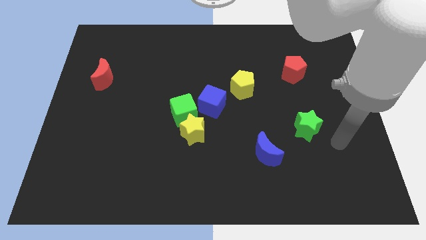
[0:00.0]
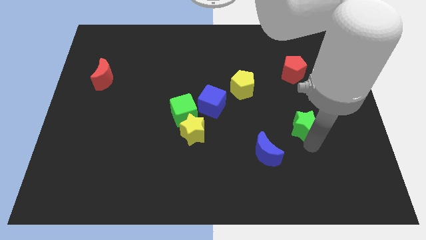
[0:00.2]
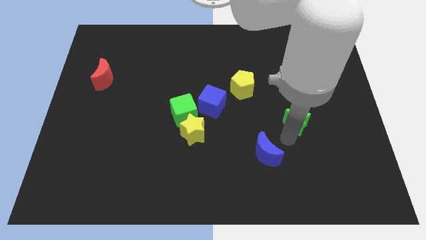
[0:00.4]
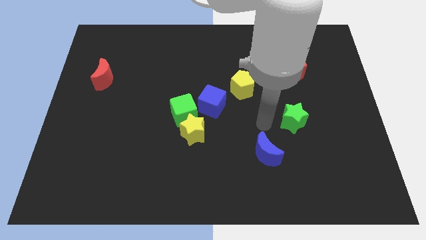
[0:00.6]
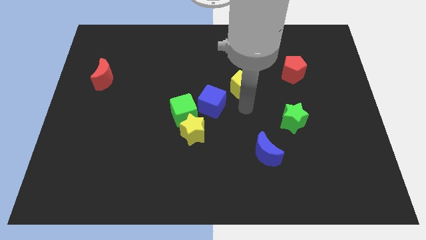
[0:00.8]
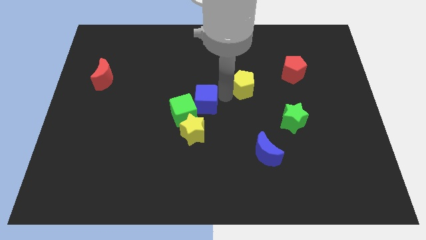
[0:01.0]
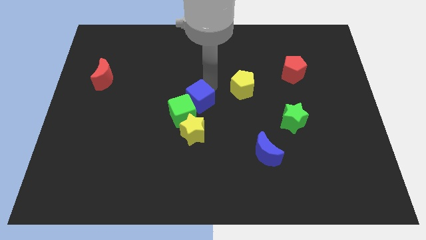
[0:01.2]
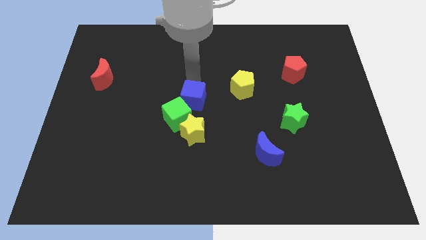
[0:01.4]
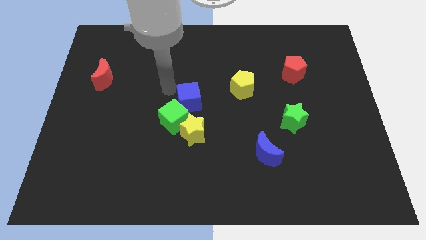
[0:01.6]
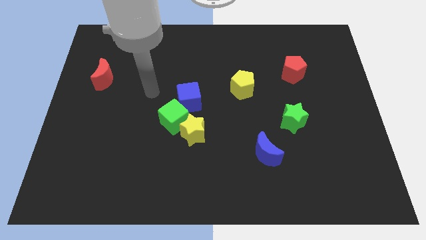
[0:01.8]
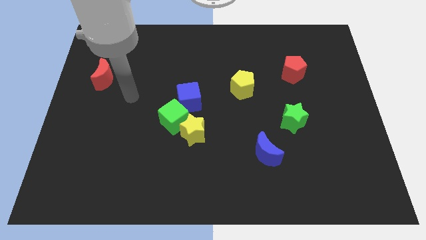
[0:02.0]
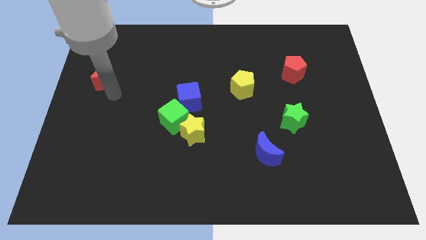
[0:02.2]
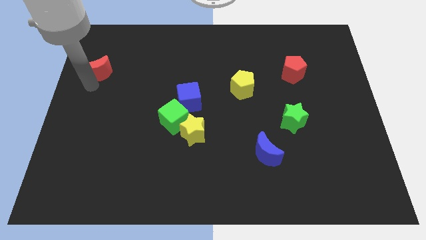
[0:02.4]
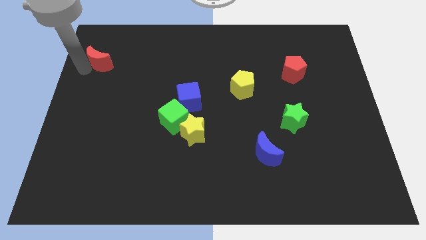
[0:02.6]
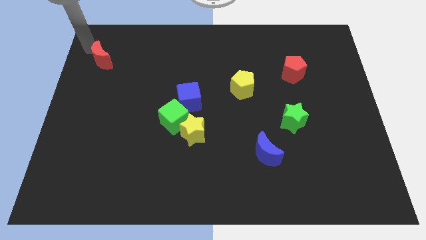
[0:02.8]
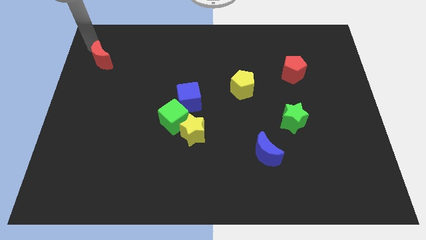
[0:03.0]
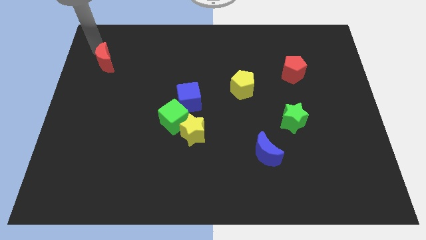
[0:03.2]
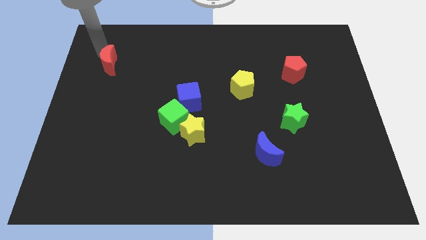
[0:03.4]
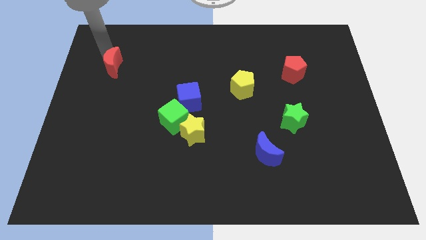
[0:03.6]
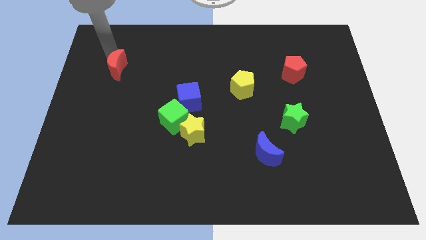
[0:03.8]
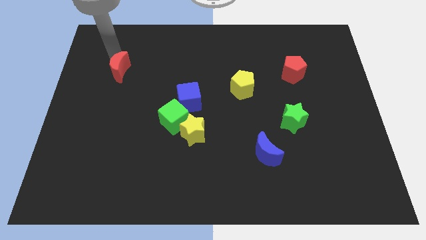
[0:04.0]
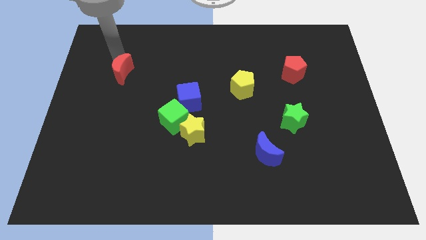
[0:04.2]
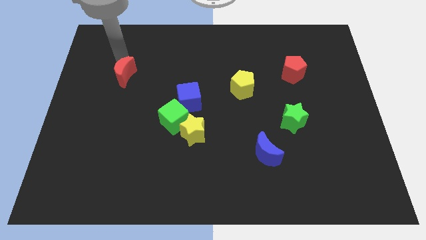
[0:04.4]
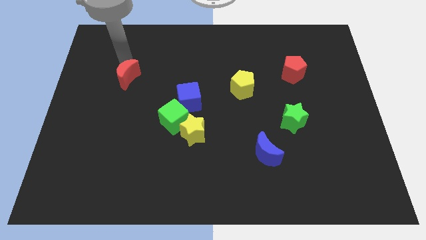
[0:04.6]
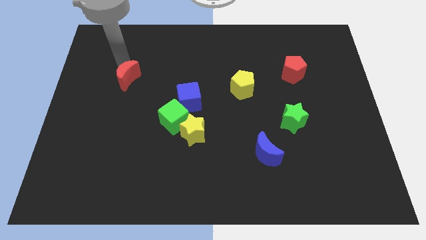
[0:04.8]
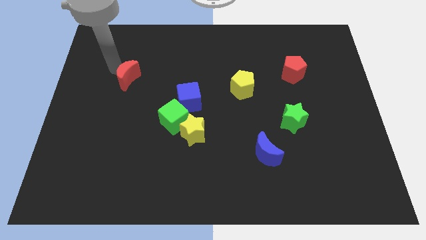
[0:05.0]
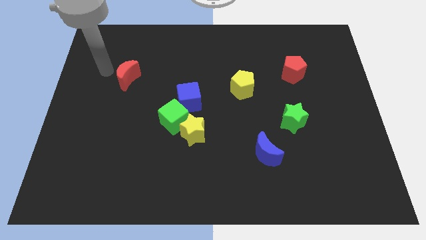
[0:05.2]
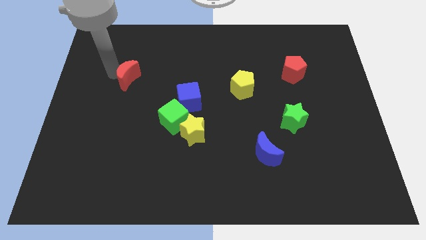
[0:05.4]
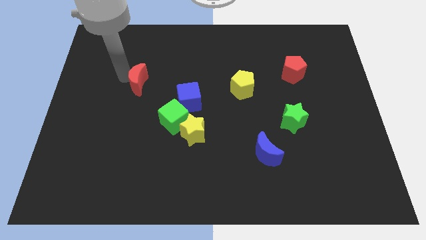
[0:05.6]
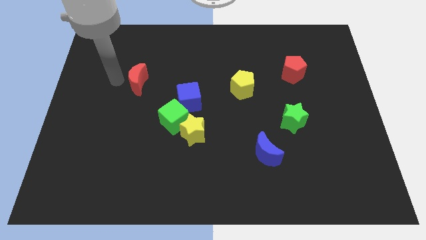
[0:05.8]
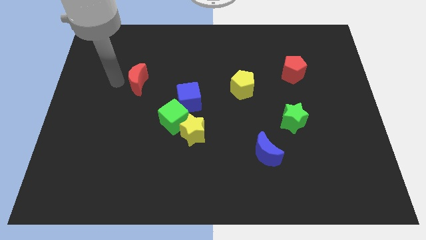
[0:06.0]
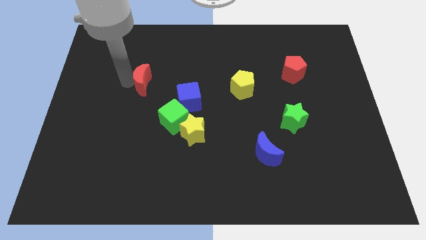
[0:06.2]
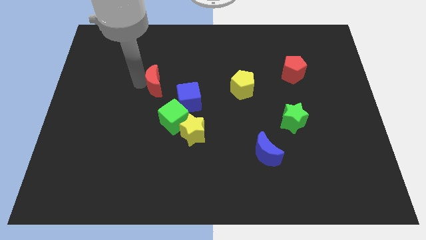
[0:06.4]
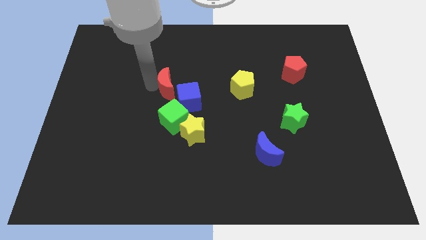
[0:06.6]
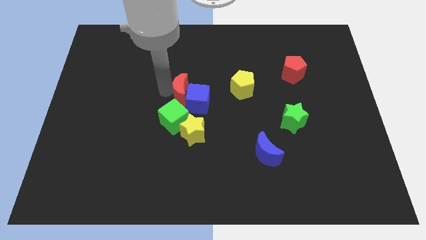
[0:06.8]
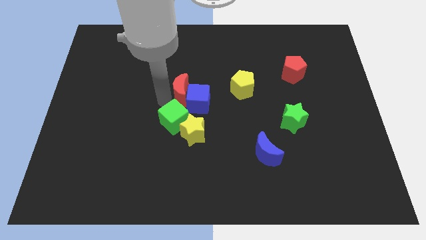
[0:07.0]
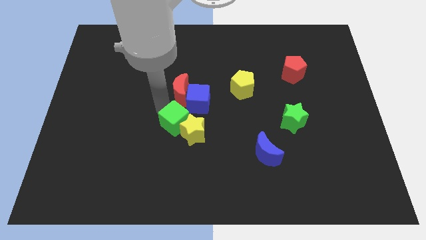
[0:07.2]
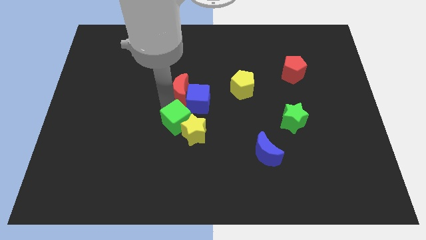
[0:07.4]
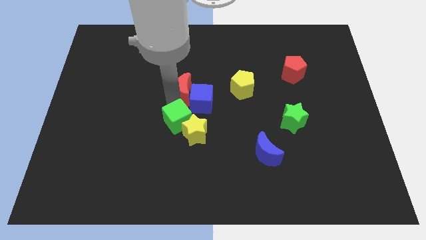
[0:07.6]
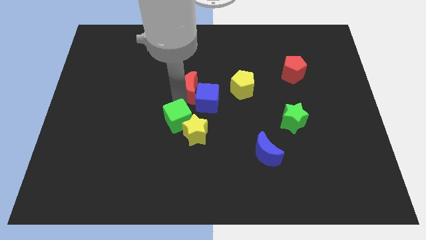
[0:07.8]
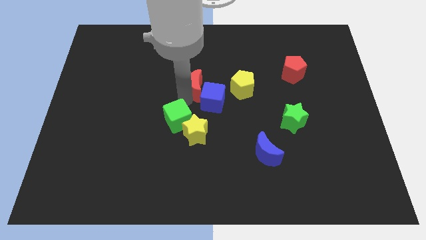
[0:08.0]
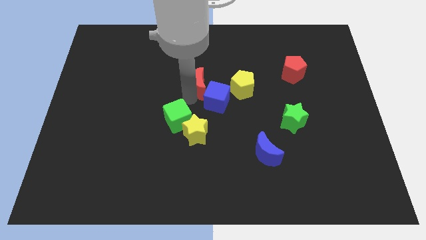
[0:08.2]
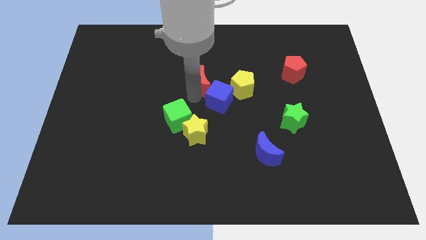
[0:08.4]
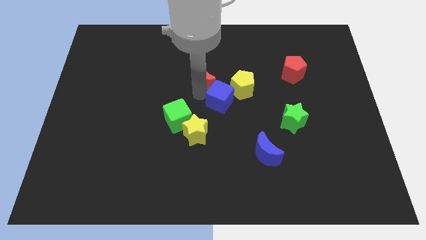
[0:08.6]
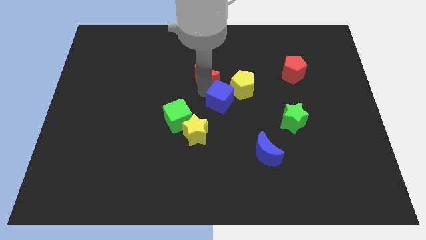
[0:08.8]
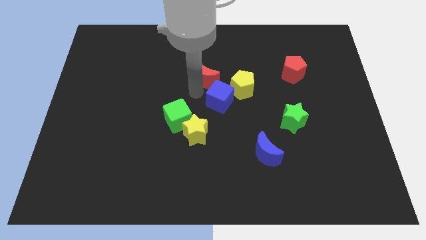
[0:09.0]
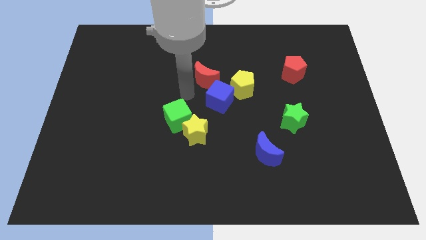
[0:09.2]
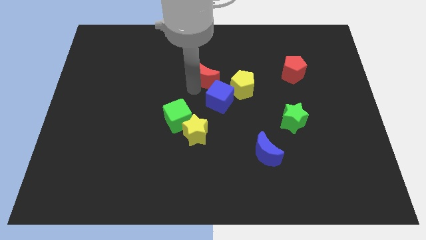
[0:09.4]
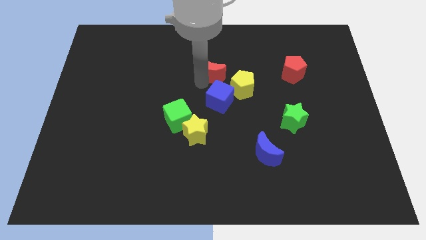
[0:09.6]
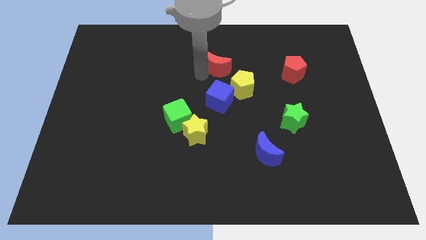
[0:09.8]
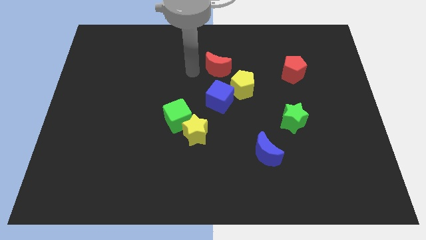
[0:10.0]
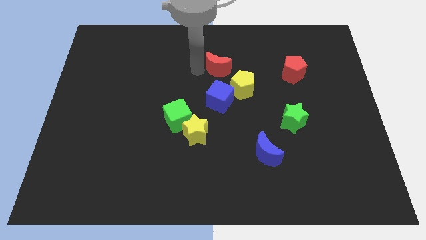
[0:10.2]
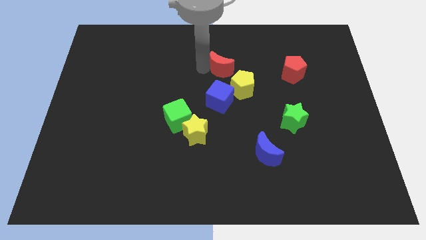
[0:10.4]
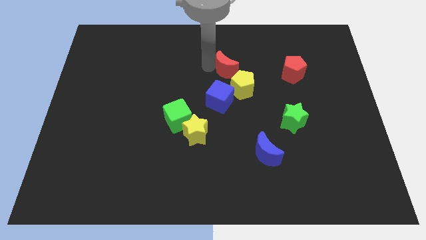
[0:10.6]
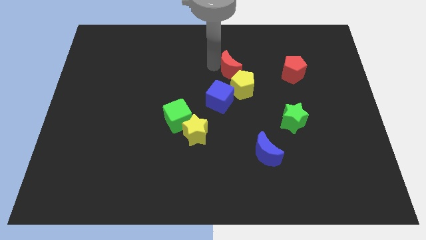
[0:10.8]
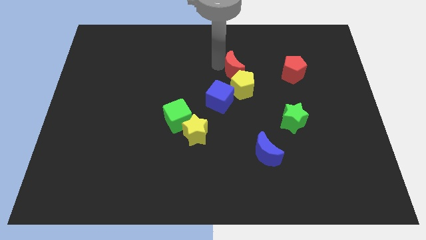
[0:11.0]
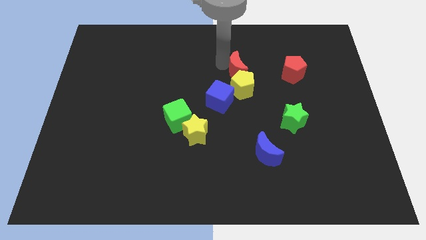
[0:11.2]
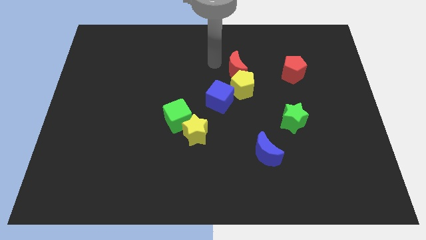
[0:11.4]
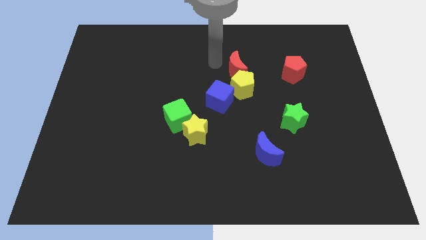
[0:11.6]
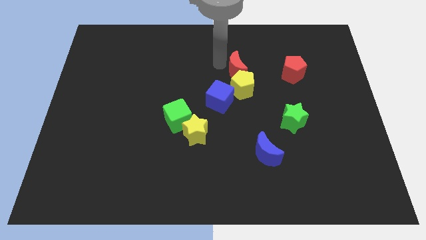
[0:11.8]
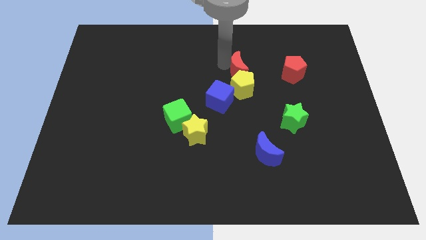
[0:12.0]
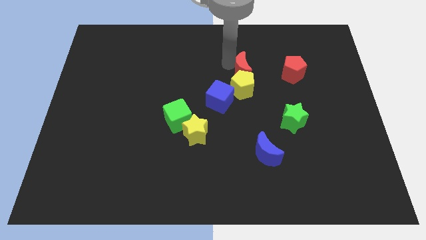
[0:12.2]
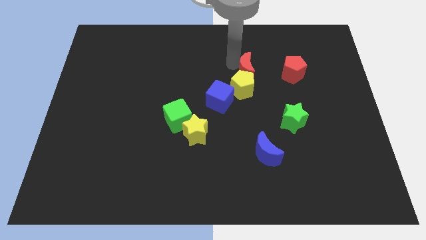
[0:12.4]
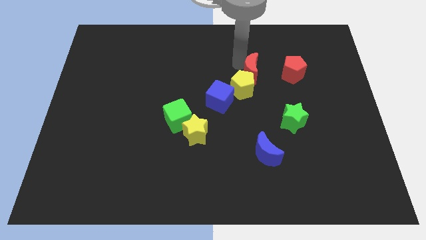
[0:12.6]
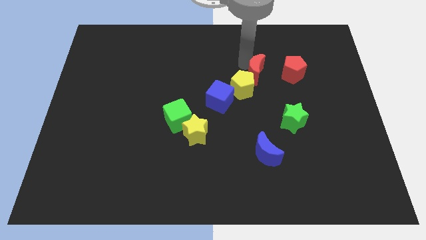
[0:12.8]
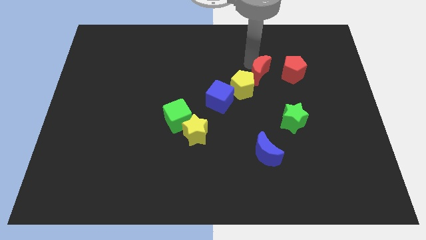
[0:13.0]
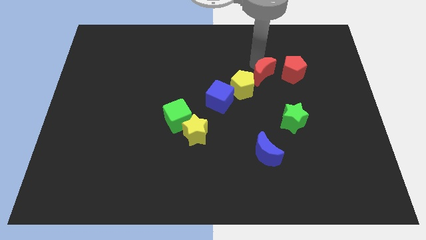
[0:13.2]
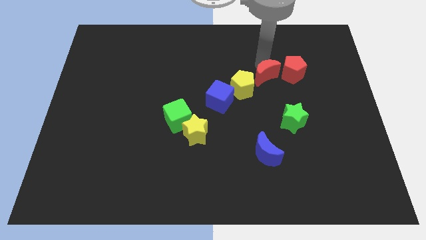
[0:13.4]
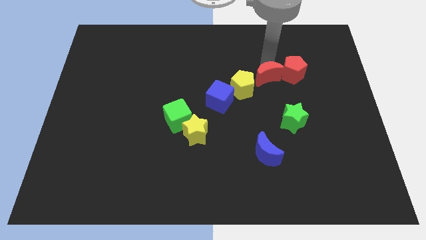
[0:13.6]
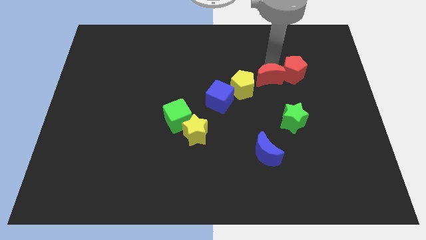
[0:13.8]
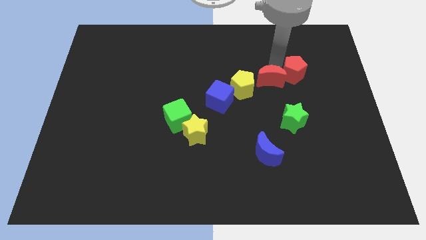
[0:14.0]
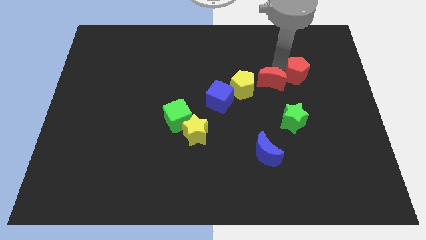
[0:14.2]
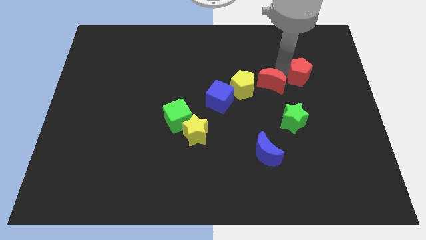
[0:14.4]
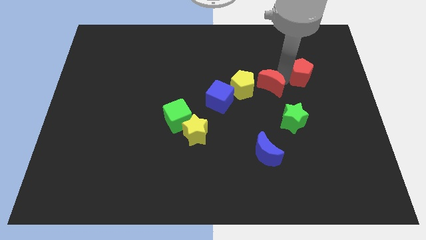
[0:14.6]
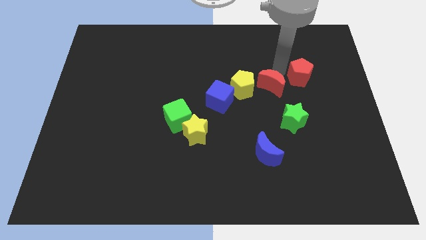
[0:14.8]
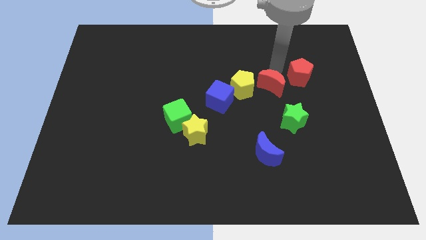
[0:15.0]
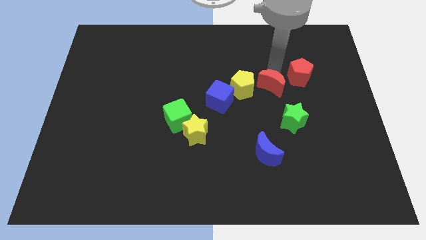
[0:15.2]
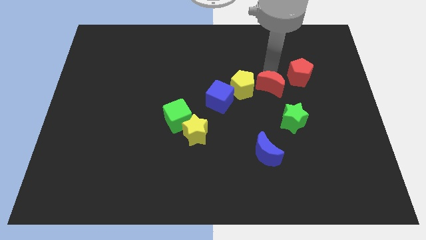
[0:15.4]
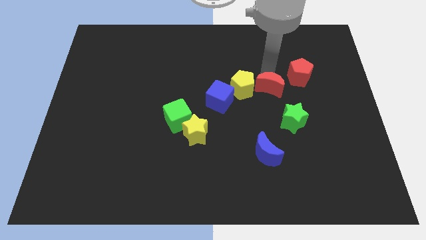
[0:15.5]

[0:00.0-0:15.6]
put the red moon diagonally down and to the right of the yellow pentagon
